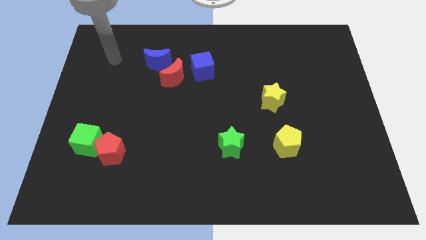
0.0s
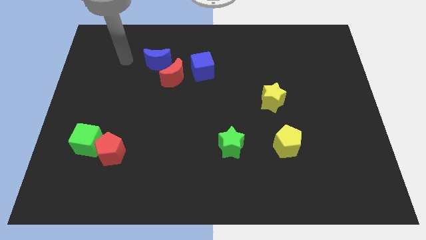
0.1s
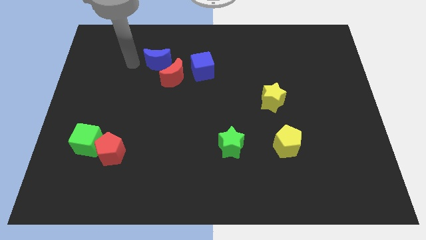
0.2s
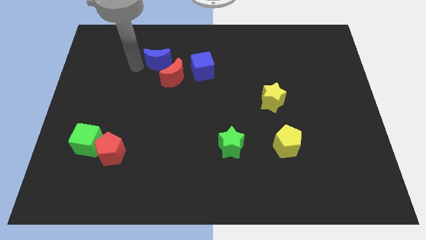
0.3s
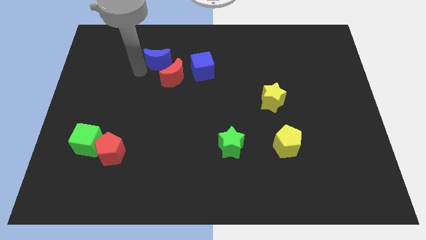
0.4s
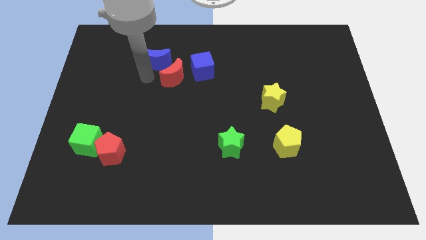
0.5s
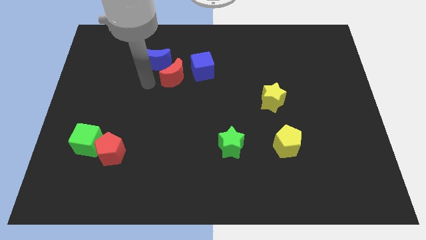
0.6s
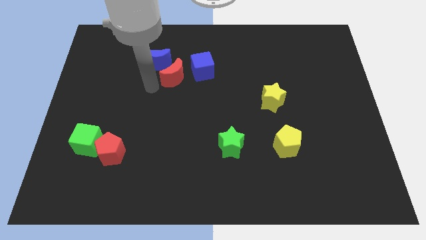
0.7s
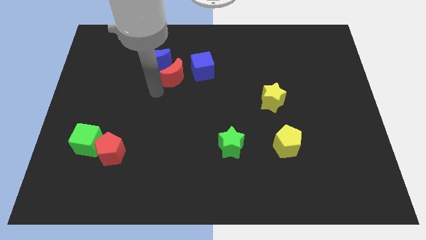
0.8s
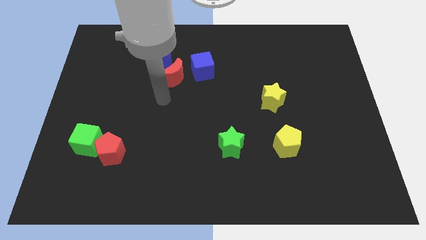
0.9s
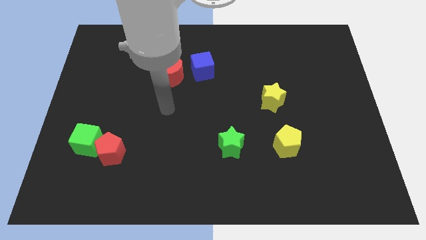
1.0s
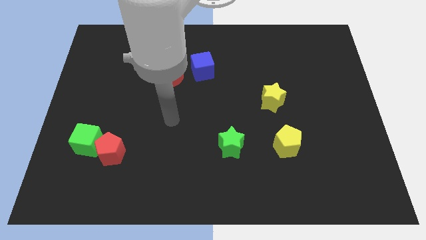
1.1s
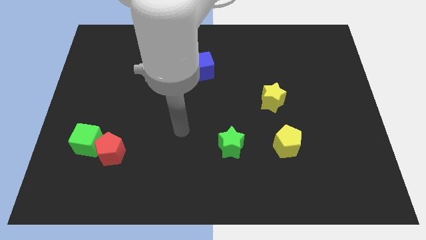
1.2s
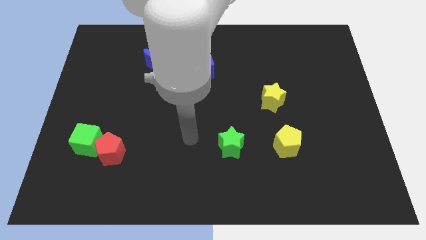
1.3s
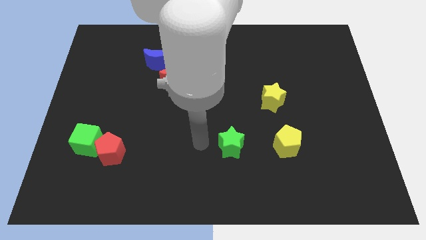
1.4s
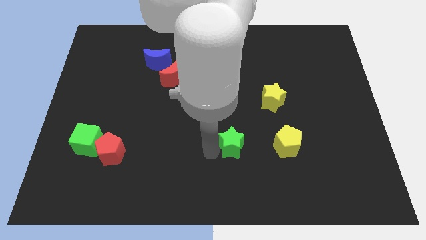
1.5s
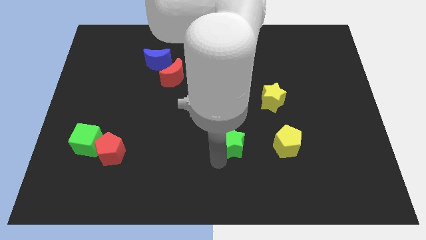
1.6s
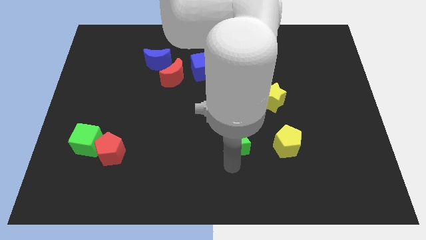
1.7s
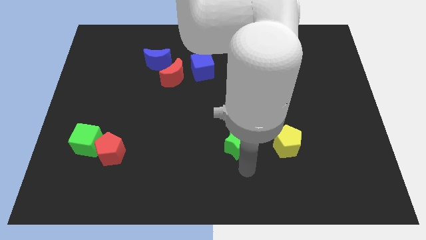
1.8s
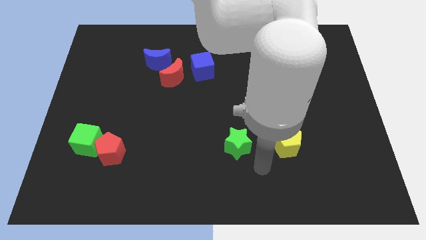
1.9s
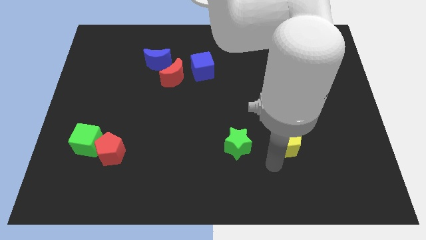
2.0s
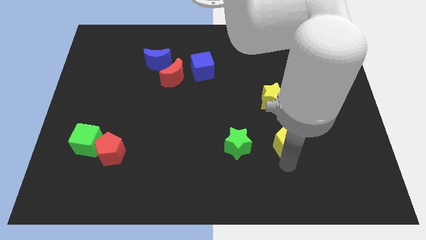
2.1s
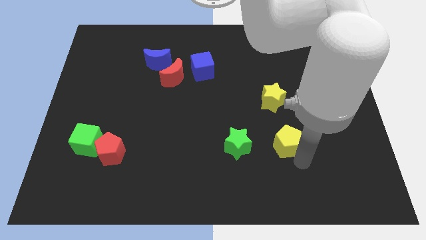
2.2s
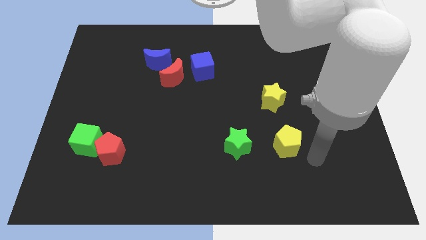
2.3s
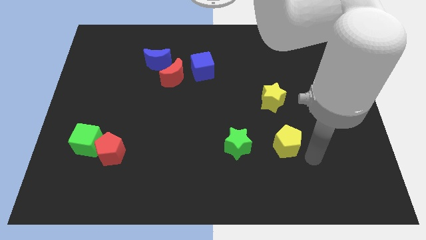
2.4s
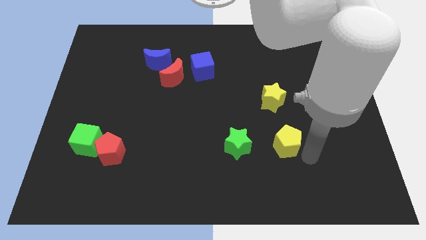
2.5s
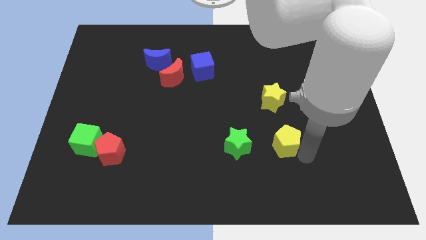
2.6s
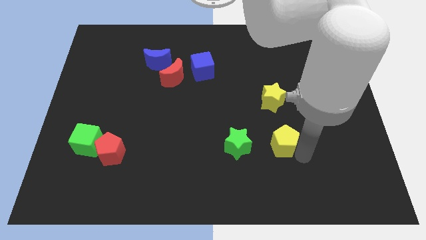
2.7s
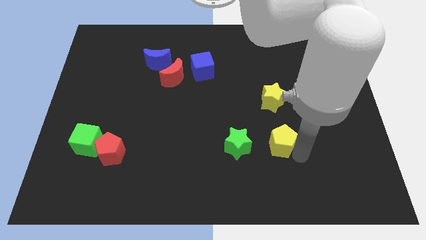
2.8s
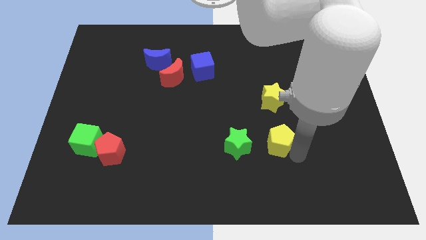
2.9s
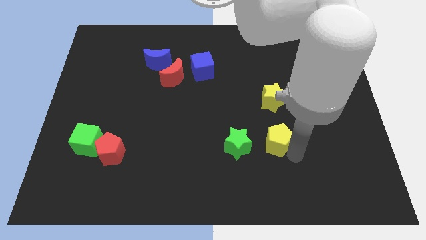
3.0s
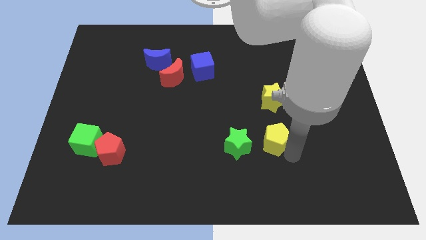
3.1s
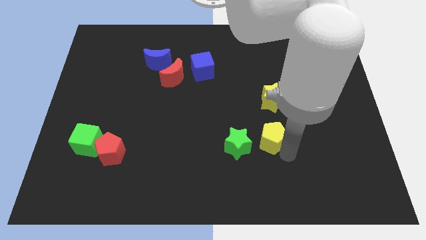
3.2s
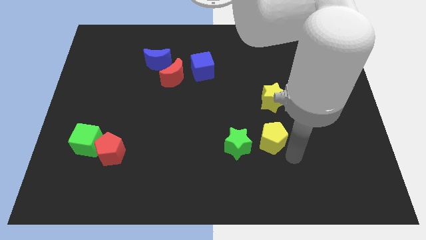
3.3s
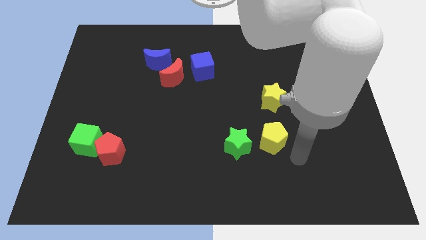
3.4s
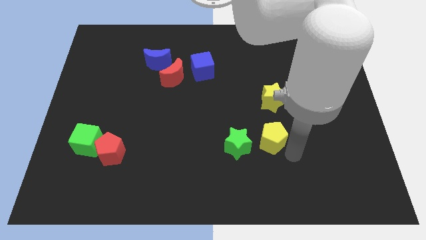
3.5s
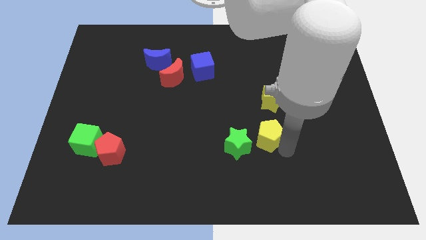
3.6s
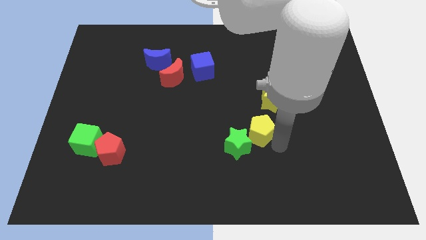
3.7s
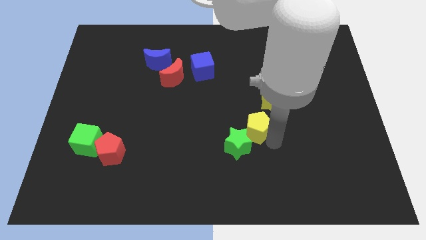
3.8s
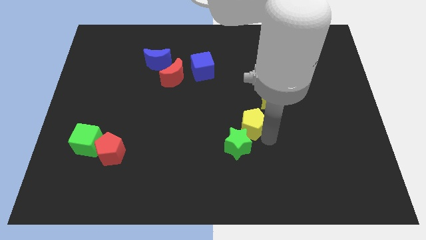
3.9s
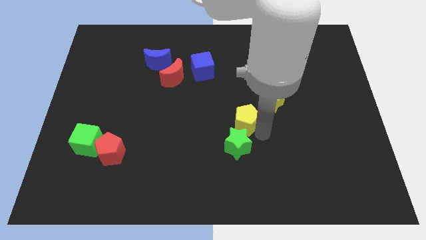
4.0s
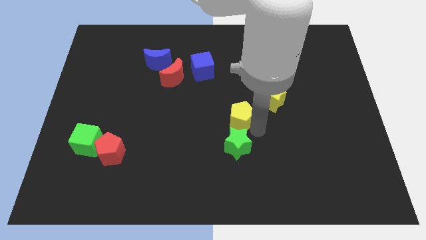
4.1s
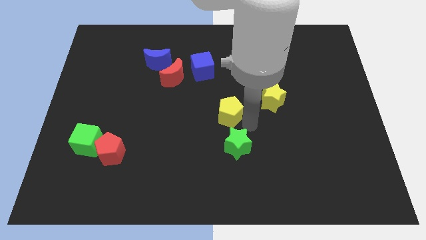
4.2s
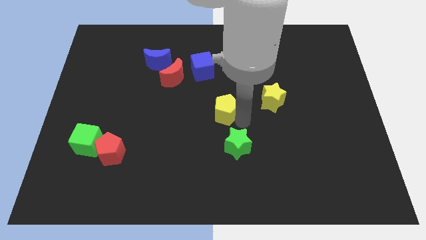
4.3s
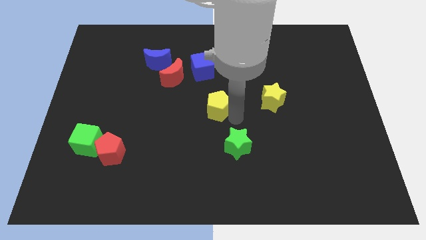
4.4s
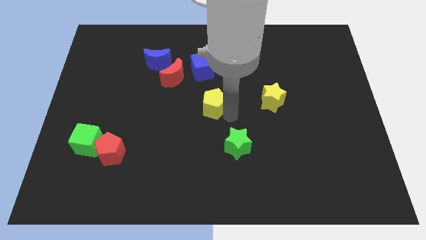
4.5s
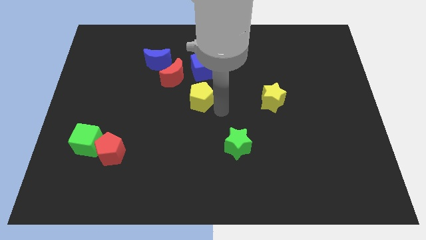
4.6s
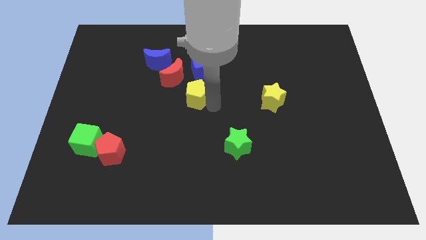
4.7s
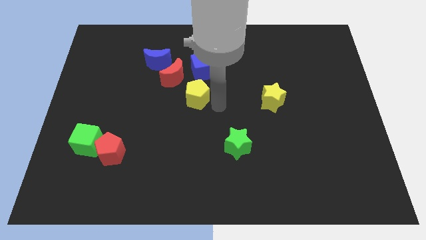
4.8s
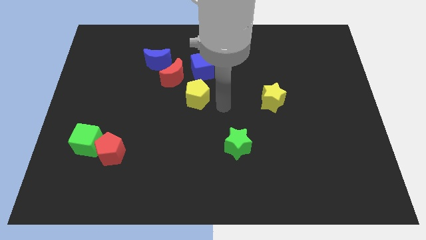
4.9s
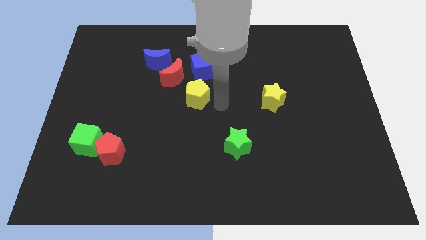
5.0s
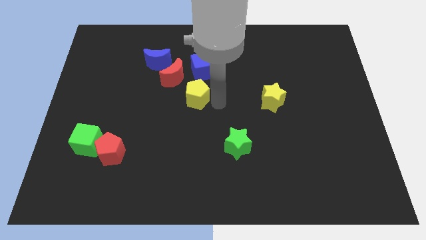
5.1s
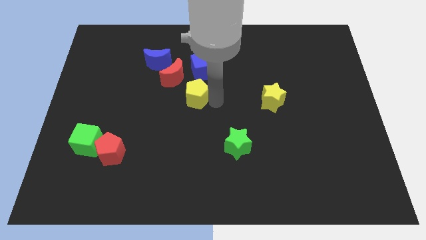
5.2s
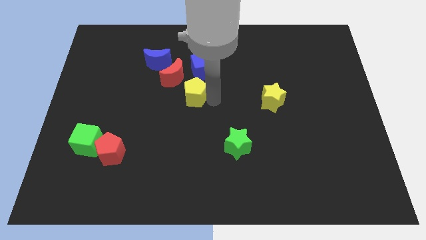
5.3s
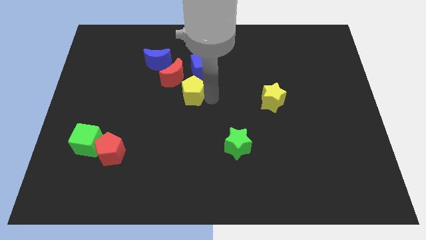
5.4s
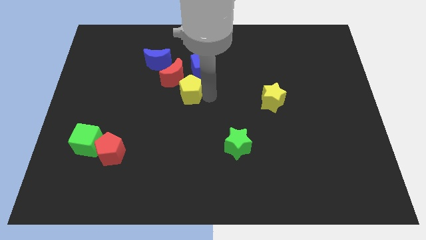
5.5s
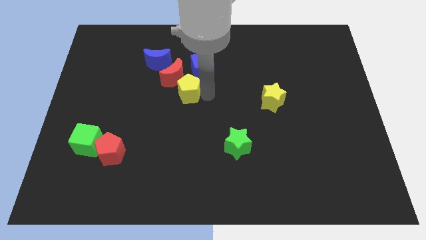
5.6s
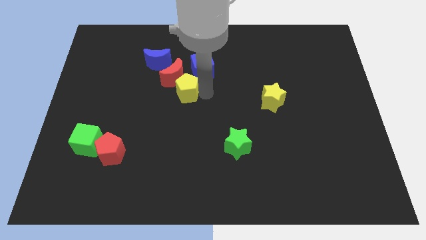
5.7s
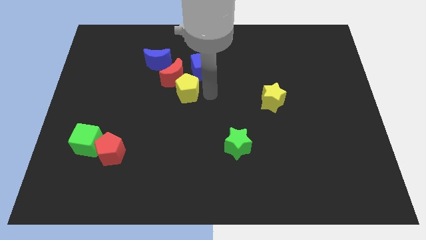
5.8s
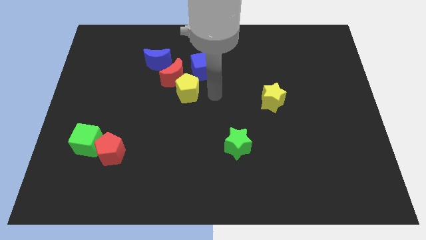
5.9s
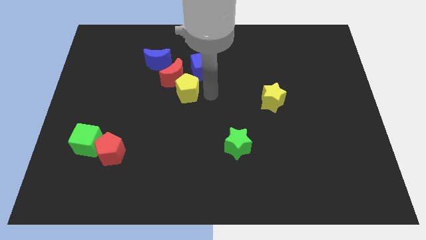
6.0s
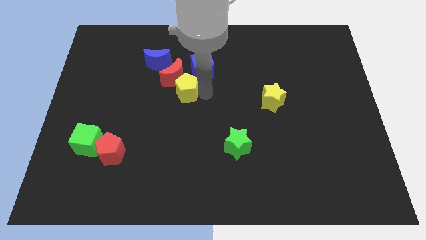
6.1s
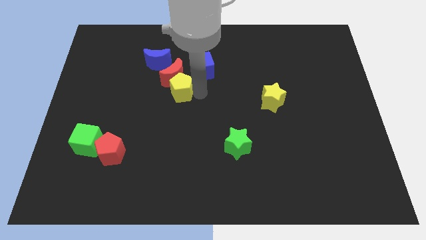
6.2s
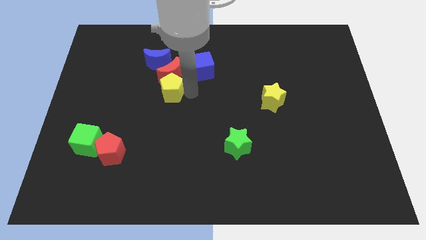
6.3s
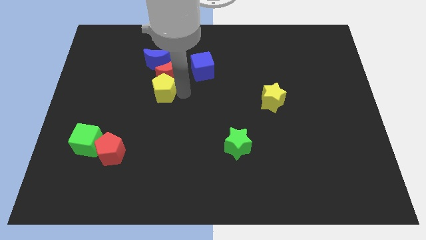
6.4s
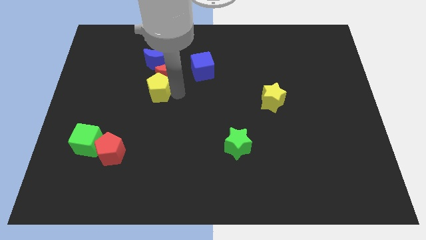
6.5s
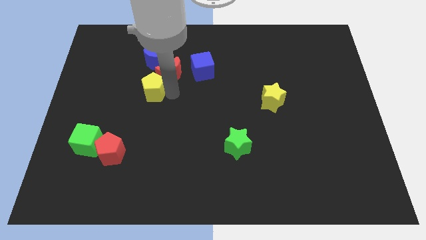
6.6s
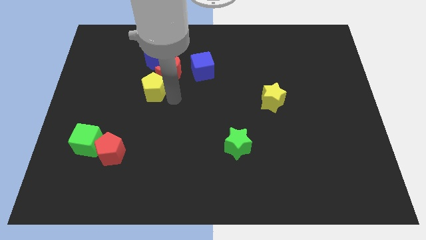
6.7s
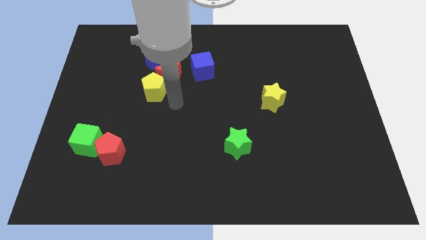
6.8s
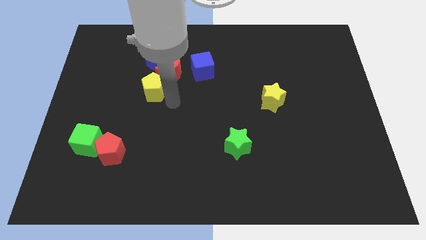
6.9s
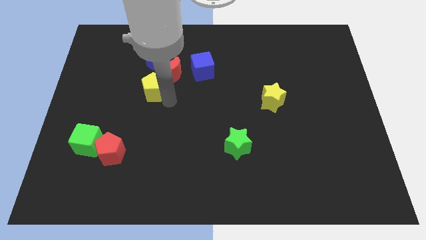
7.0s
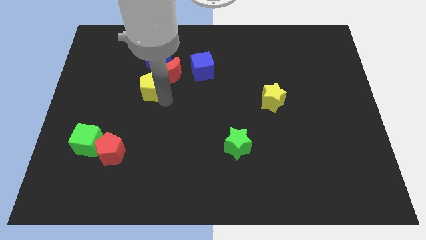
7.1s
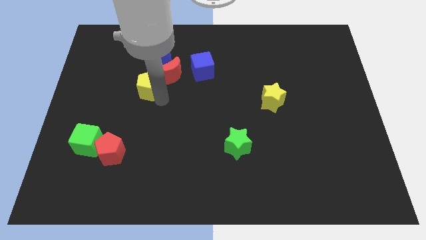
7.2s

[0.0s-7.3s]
move the yellow pentagon to the left side of the red moon

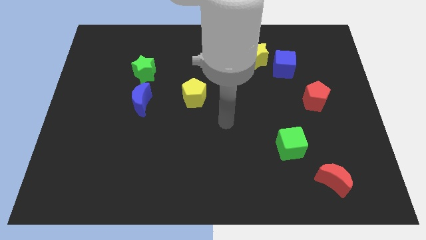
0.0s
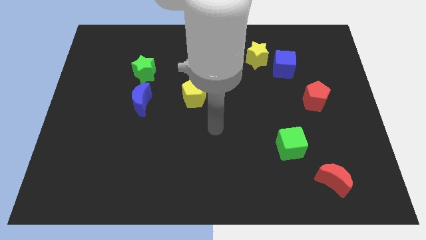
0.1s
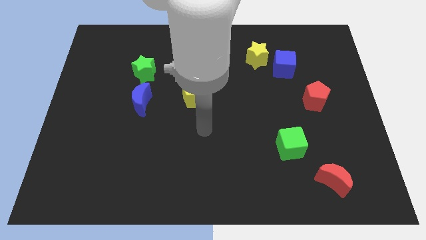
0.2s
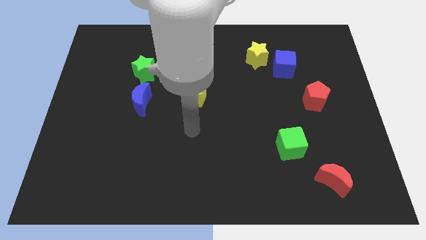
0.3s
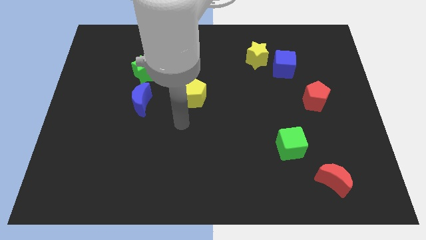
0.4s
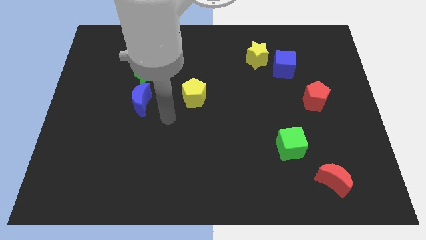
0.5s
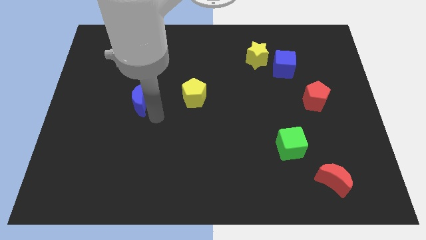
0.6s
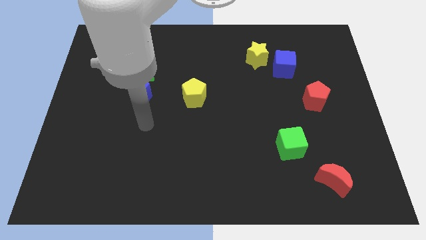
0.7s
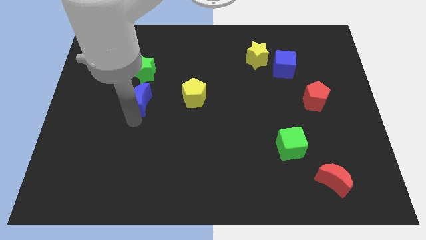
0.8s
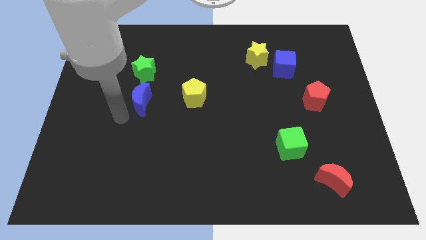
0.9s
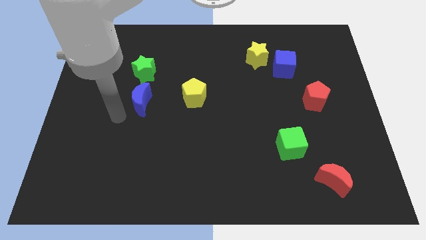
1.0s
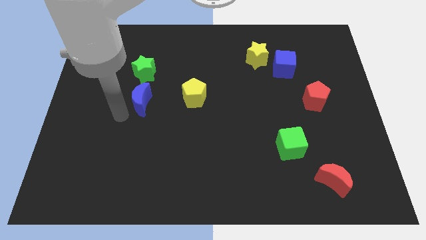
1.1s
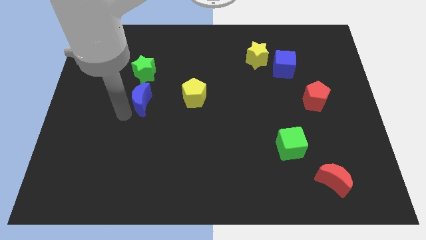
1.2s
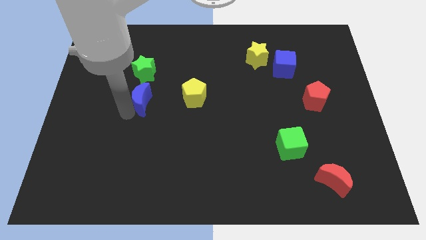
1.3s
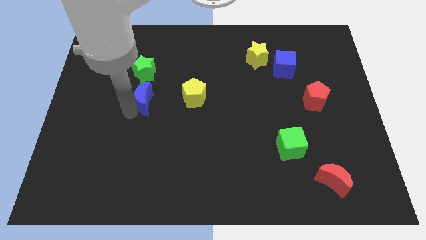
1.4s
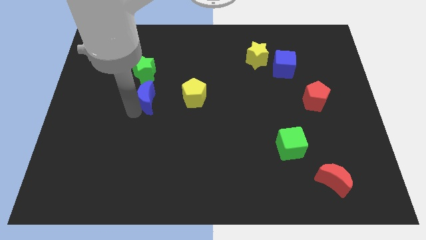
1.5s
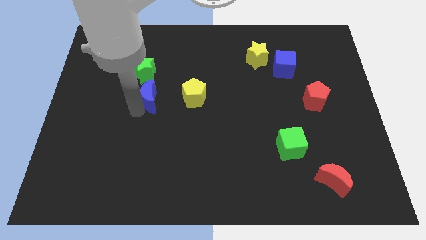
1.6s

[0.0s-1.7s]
slide the blue moon diagonally down and to the right of the green star
